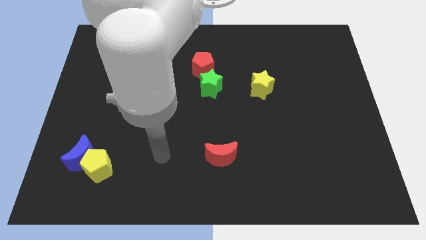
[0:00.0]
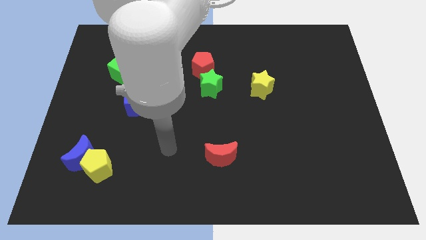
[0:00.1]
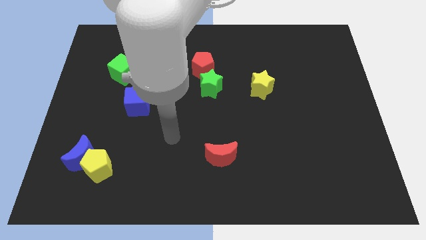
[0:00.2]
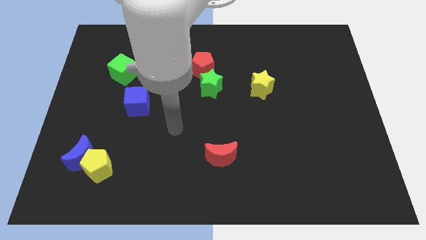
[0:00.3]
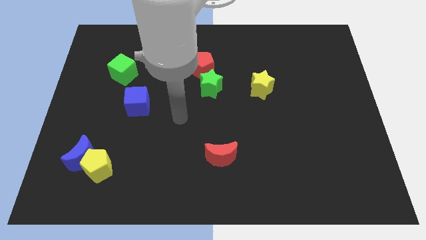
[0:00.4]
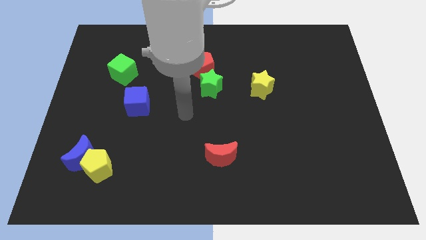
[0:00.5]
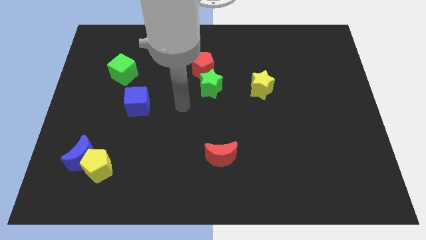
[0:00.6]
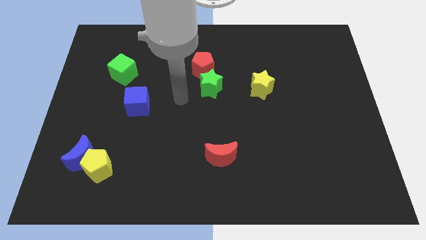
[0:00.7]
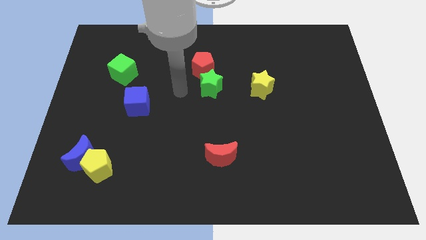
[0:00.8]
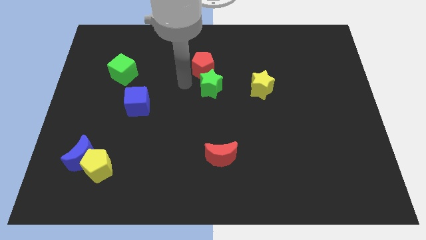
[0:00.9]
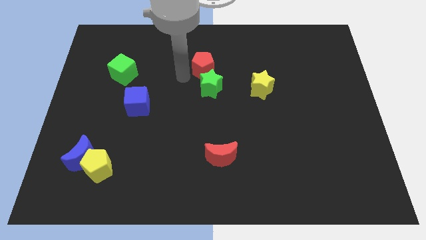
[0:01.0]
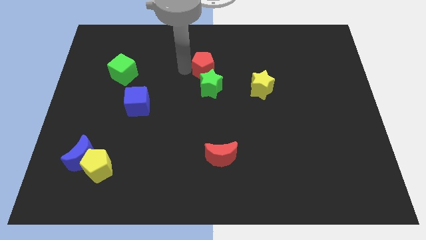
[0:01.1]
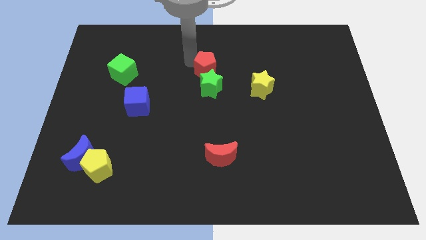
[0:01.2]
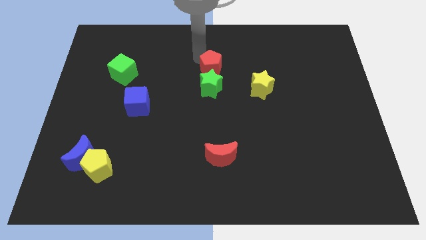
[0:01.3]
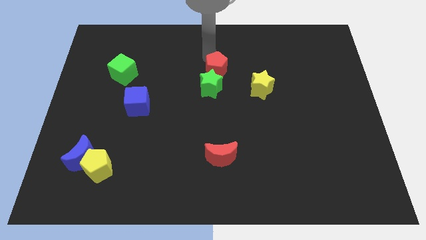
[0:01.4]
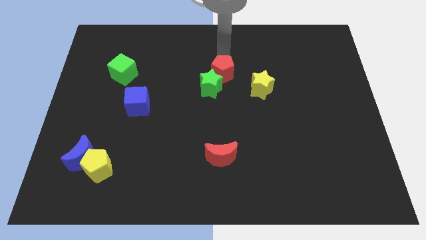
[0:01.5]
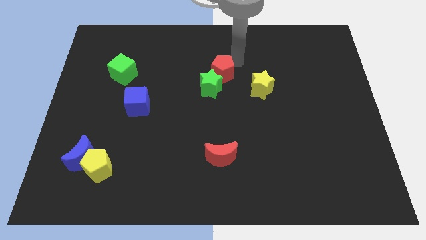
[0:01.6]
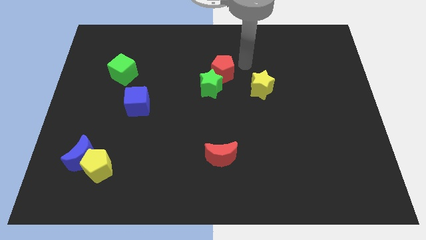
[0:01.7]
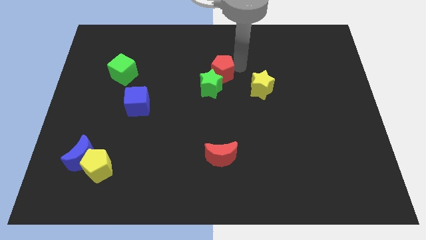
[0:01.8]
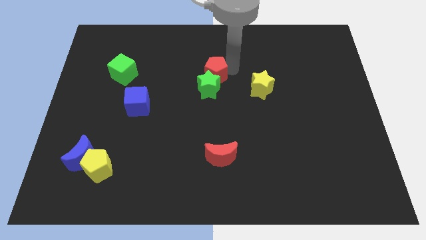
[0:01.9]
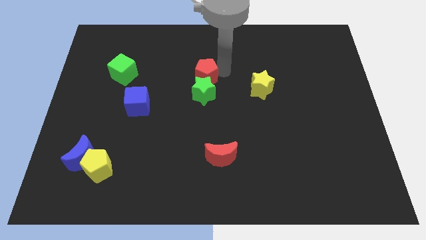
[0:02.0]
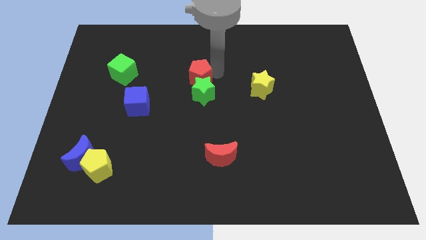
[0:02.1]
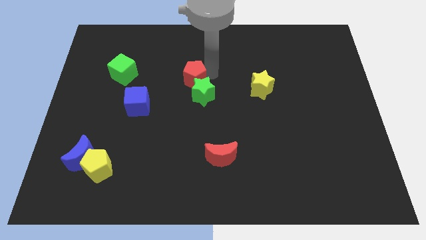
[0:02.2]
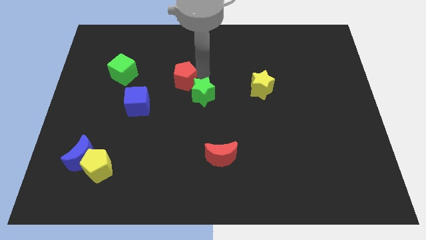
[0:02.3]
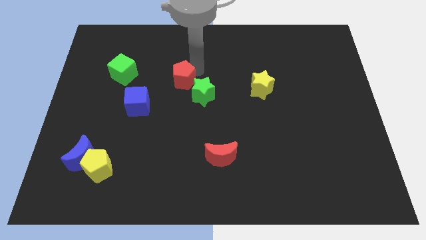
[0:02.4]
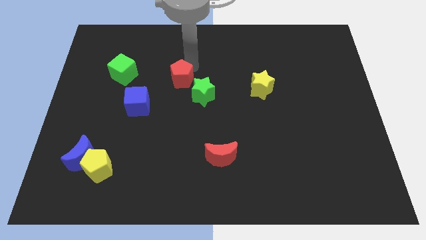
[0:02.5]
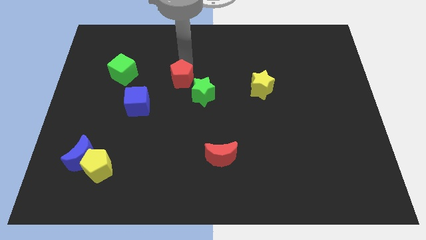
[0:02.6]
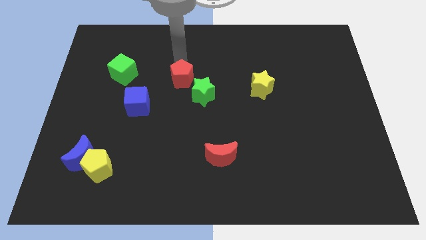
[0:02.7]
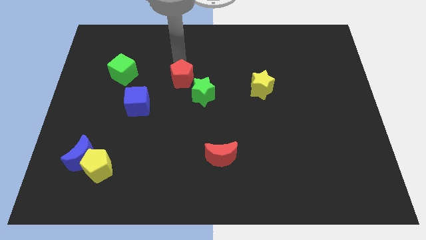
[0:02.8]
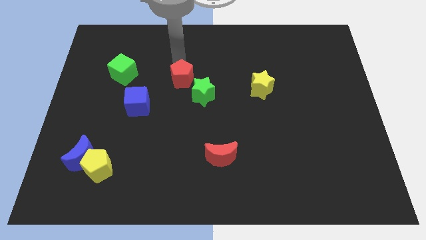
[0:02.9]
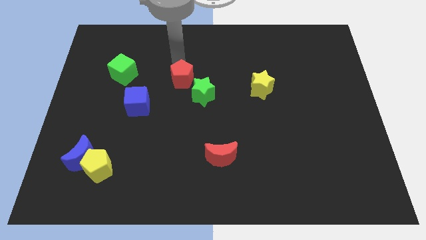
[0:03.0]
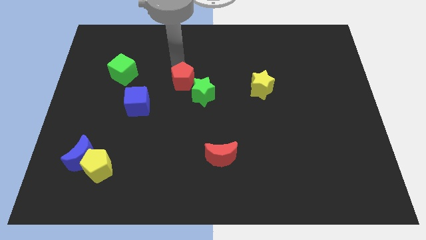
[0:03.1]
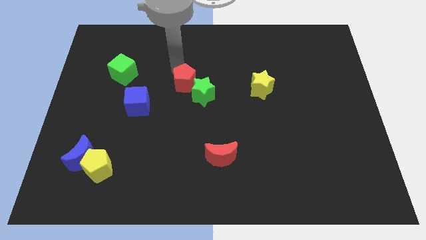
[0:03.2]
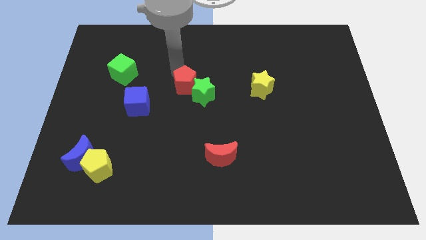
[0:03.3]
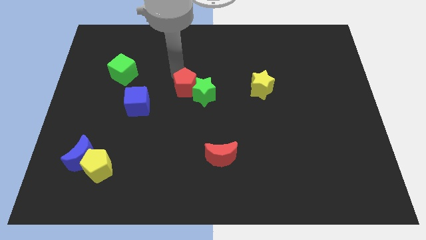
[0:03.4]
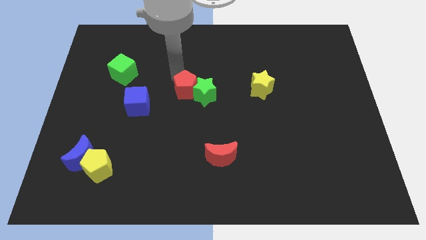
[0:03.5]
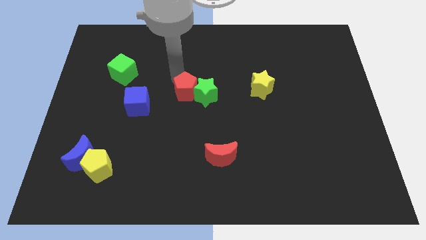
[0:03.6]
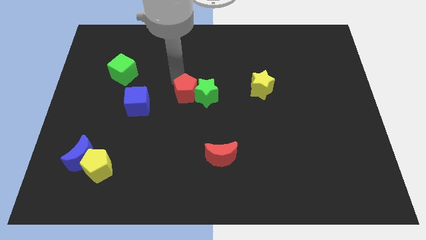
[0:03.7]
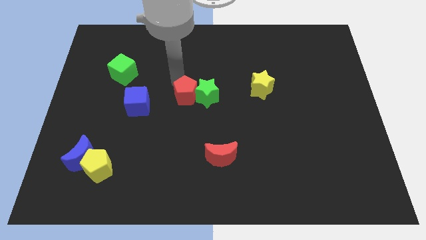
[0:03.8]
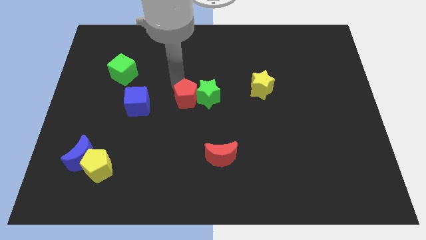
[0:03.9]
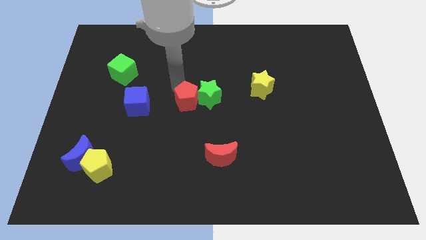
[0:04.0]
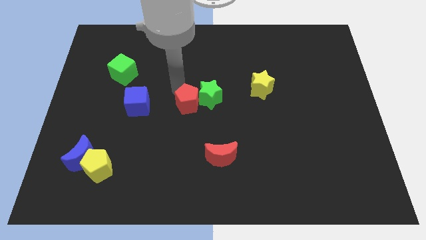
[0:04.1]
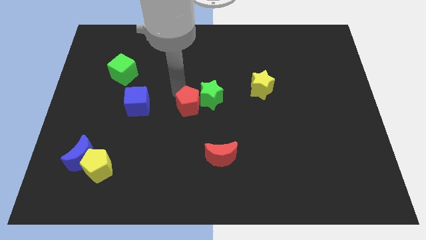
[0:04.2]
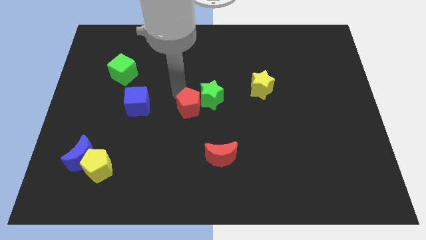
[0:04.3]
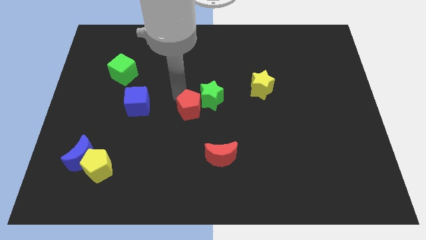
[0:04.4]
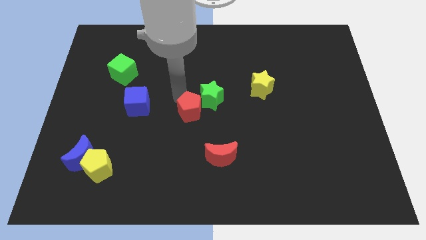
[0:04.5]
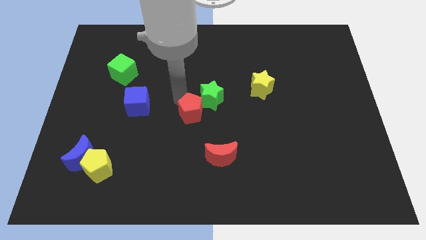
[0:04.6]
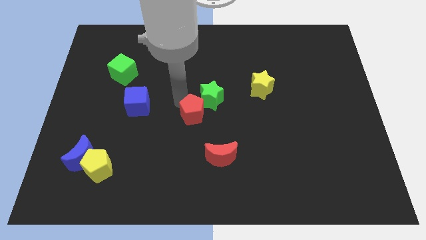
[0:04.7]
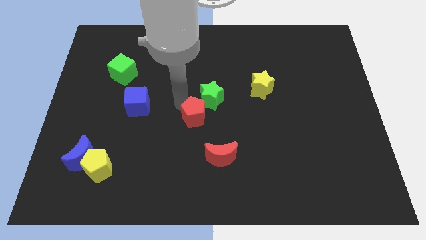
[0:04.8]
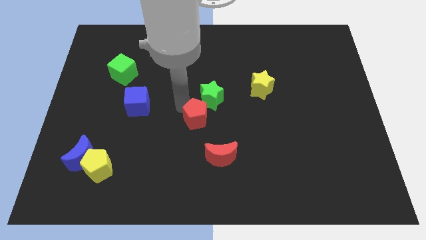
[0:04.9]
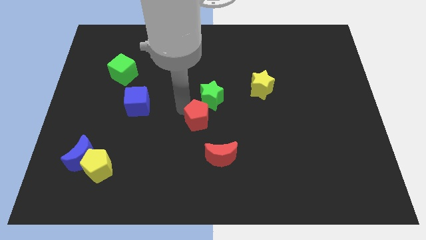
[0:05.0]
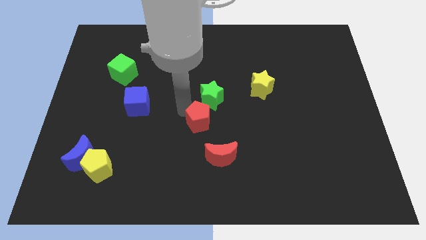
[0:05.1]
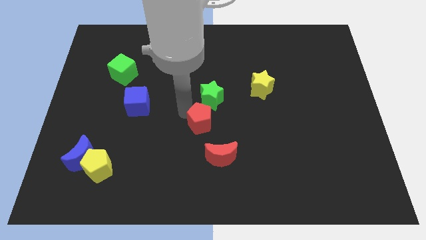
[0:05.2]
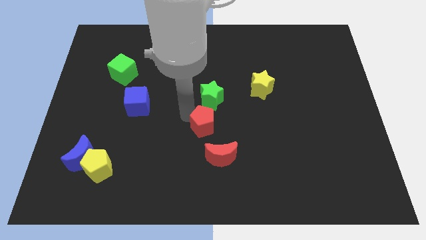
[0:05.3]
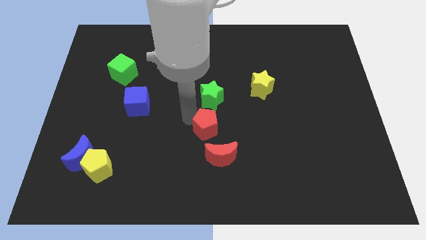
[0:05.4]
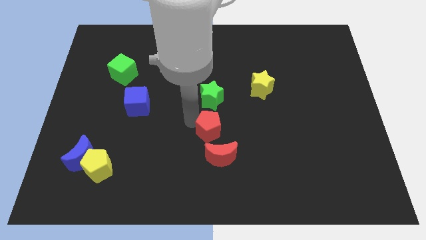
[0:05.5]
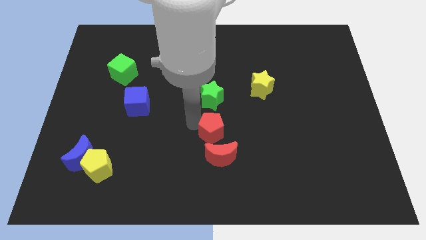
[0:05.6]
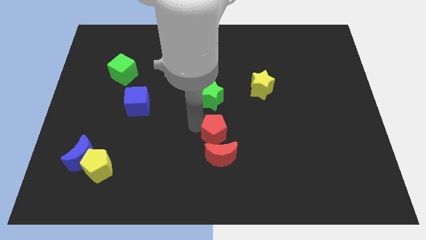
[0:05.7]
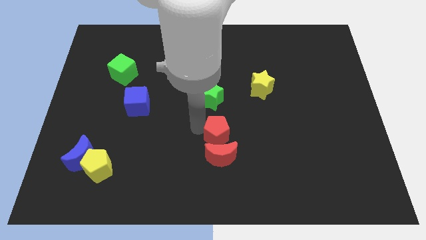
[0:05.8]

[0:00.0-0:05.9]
slide the red pentagon close to the red moon

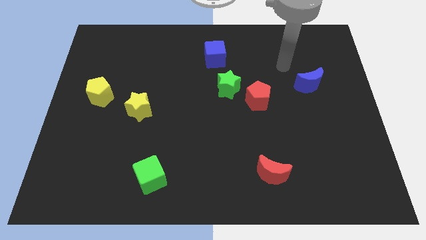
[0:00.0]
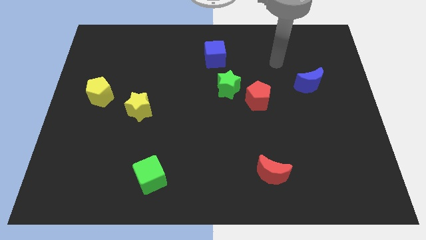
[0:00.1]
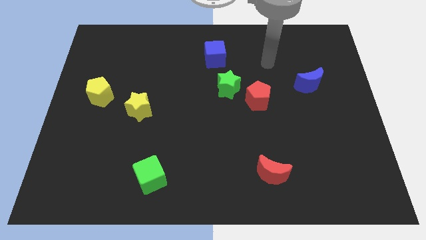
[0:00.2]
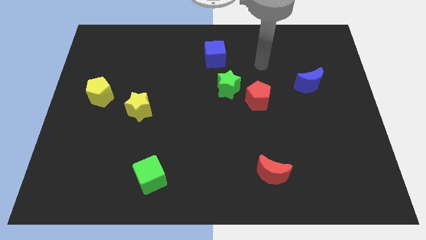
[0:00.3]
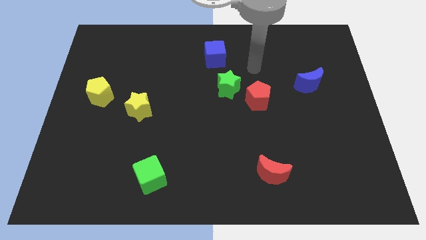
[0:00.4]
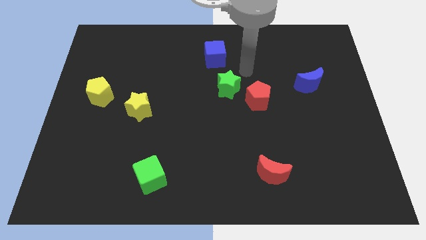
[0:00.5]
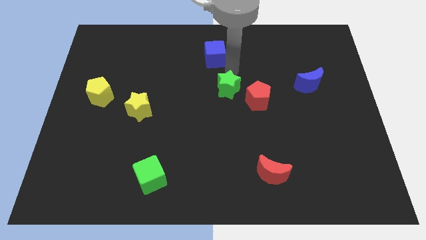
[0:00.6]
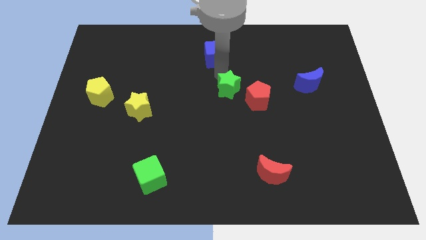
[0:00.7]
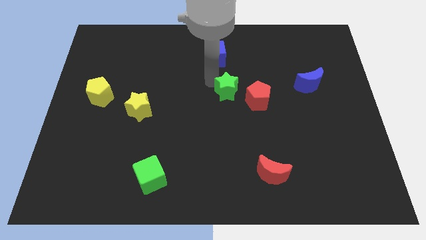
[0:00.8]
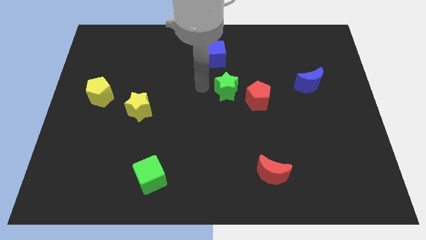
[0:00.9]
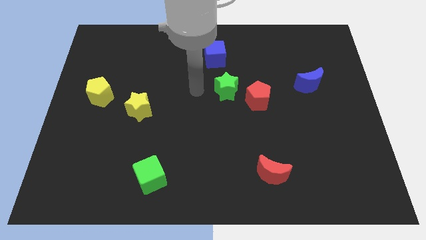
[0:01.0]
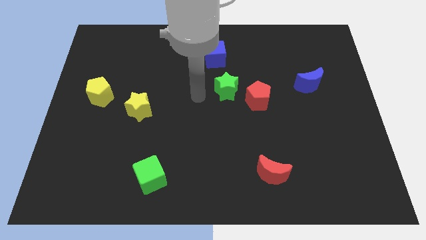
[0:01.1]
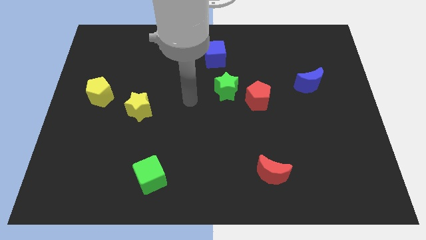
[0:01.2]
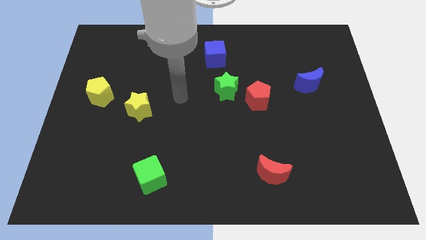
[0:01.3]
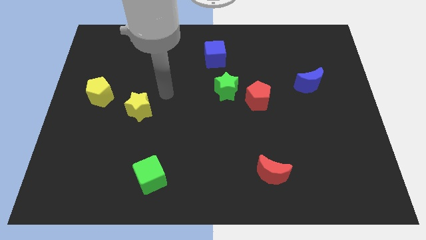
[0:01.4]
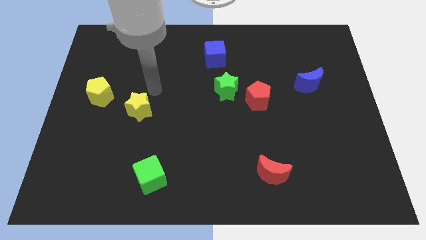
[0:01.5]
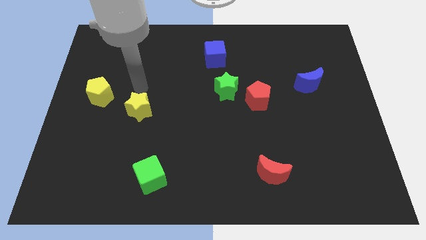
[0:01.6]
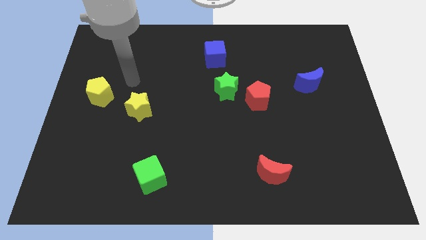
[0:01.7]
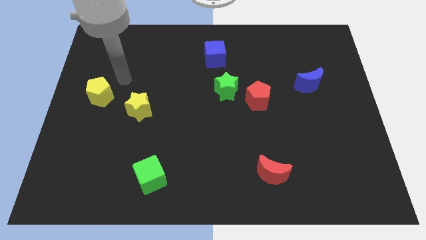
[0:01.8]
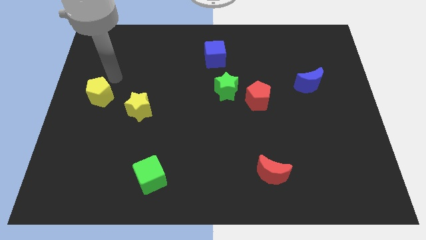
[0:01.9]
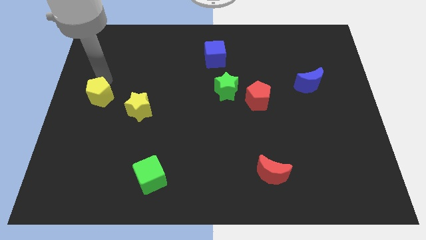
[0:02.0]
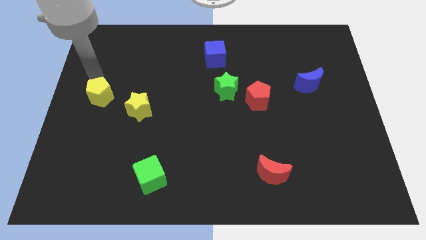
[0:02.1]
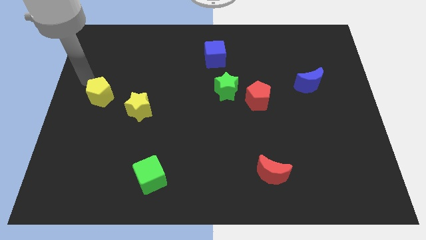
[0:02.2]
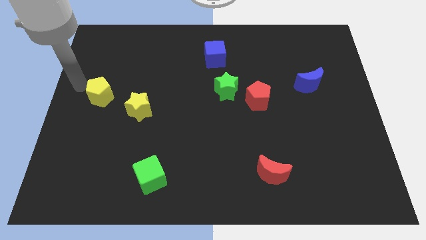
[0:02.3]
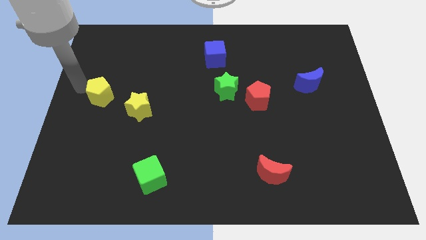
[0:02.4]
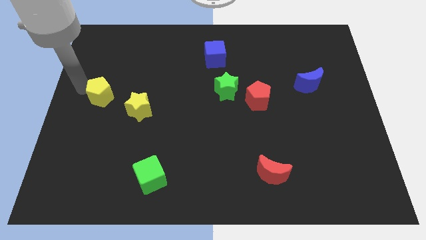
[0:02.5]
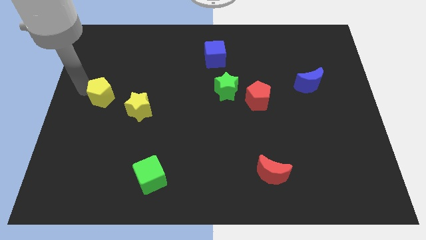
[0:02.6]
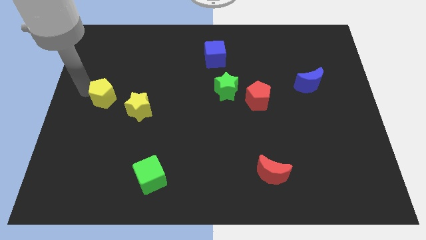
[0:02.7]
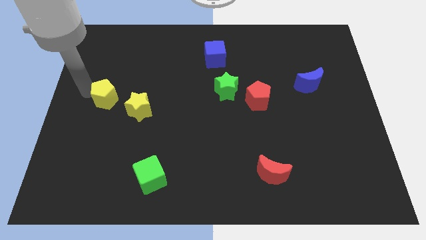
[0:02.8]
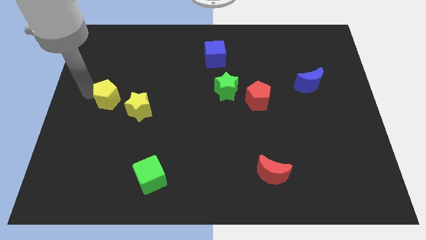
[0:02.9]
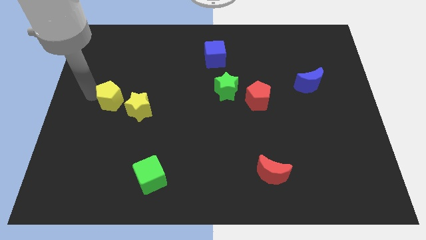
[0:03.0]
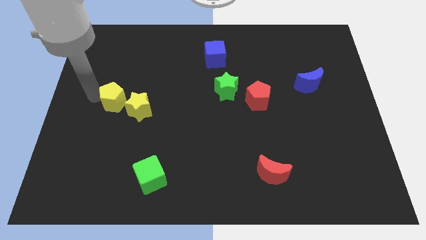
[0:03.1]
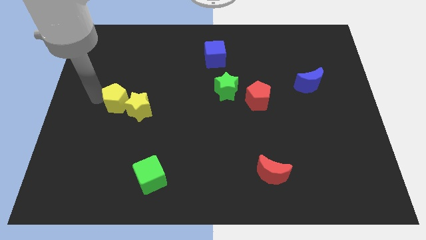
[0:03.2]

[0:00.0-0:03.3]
slide the yellow pentagon to the yellow star
